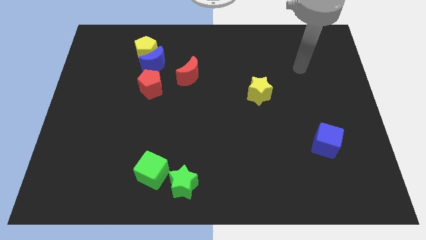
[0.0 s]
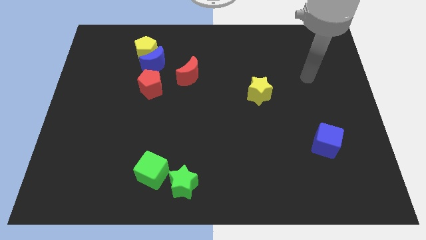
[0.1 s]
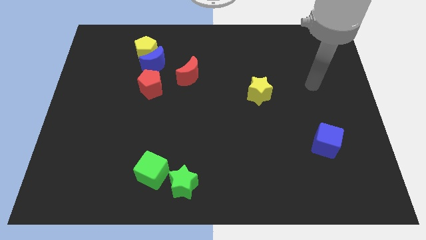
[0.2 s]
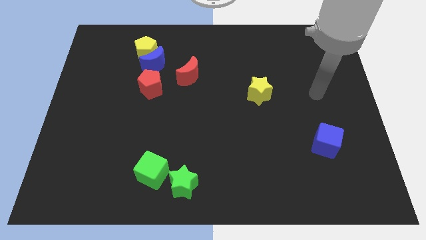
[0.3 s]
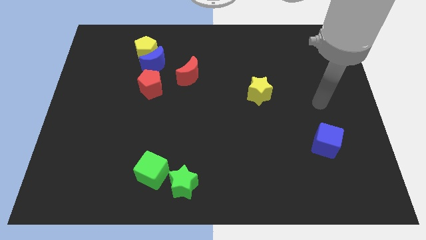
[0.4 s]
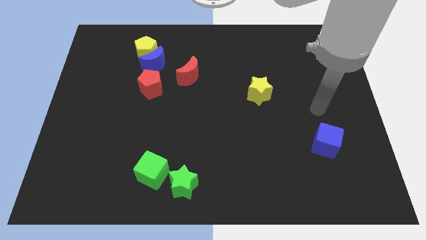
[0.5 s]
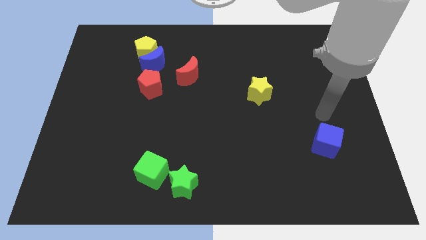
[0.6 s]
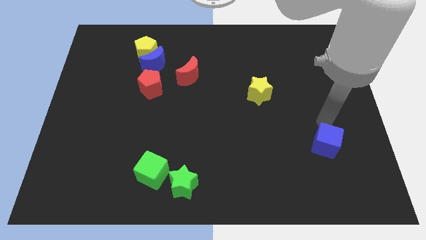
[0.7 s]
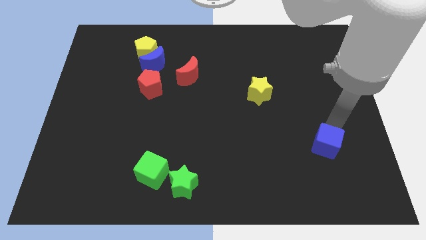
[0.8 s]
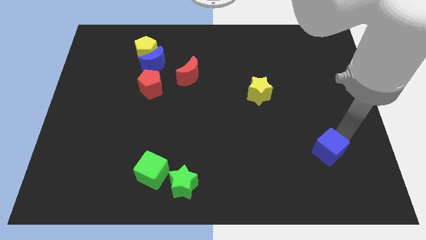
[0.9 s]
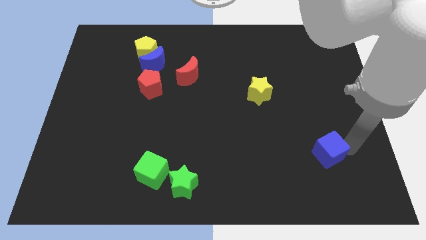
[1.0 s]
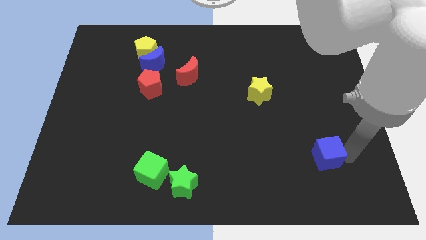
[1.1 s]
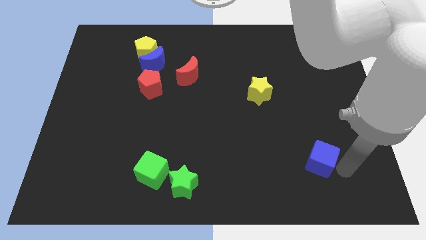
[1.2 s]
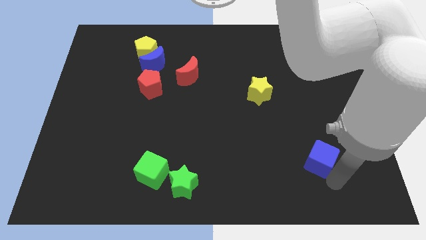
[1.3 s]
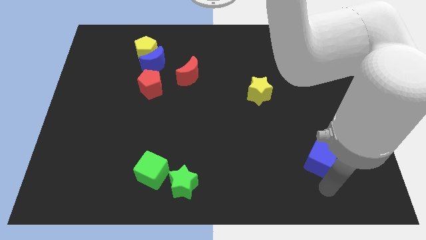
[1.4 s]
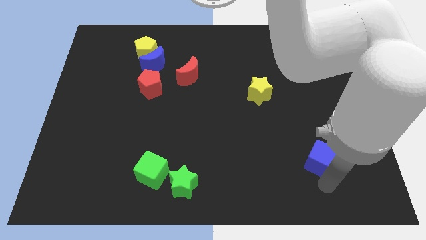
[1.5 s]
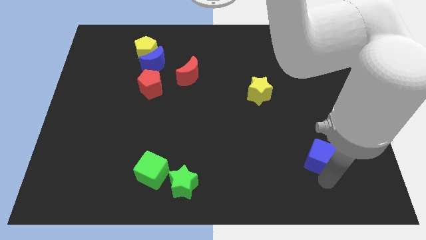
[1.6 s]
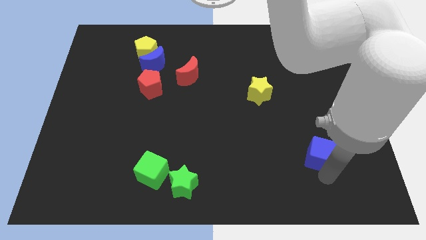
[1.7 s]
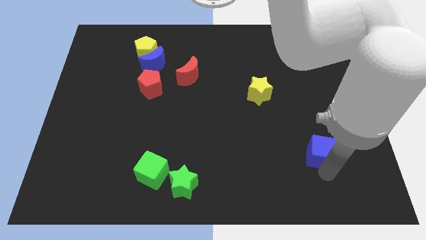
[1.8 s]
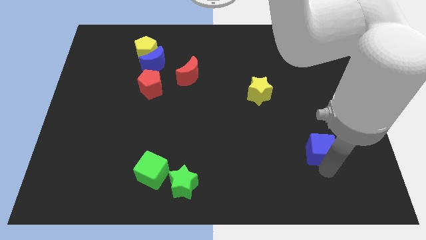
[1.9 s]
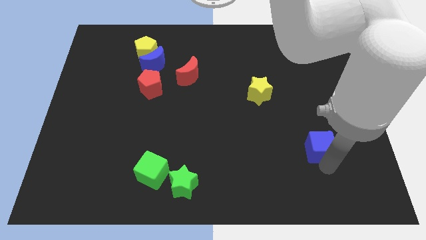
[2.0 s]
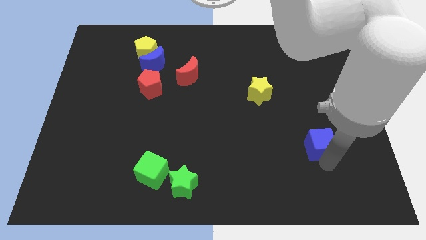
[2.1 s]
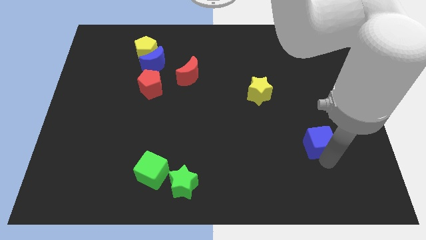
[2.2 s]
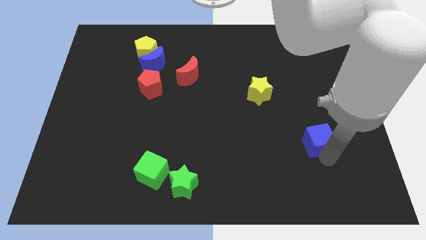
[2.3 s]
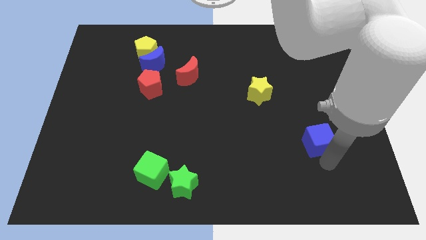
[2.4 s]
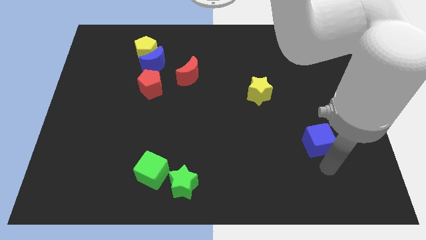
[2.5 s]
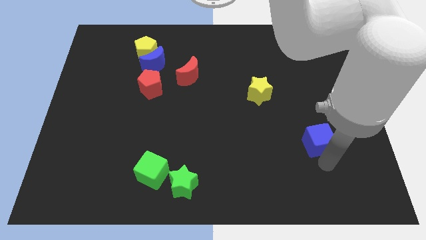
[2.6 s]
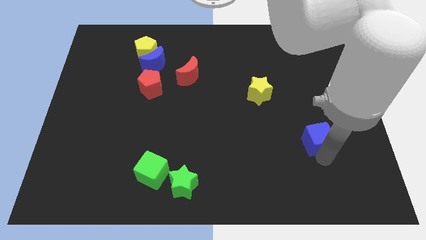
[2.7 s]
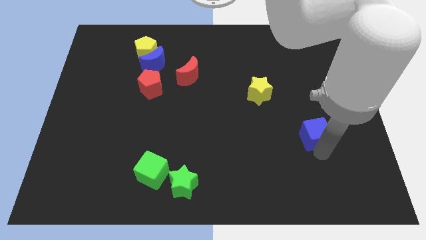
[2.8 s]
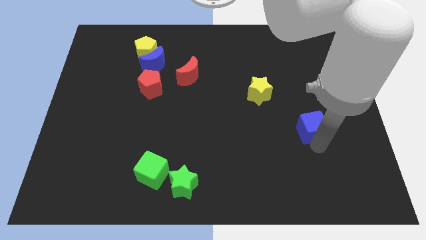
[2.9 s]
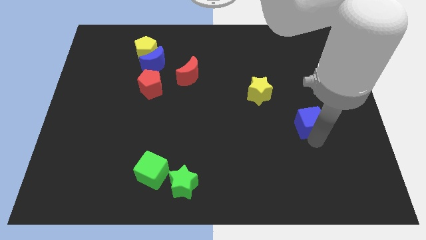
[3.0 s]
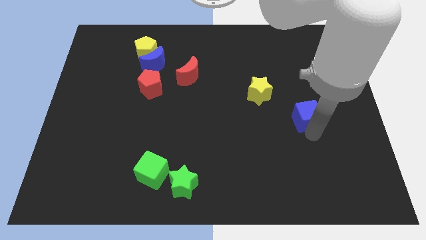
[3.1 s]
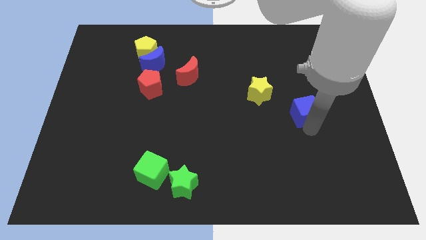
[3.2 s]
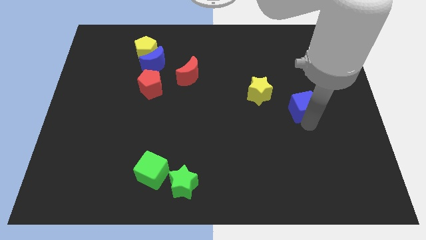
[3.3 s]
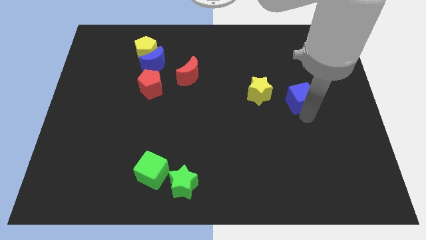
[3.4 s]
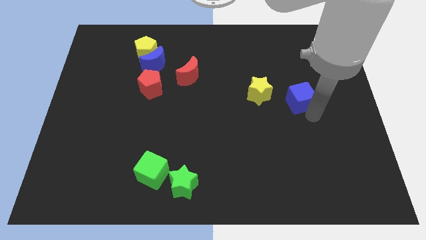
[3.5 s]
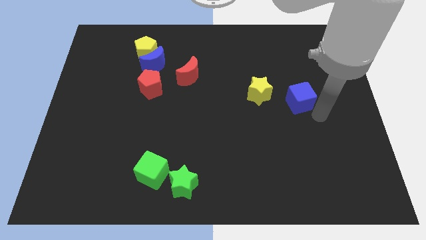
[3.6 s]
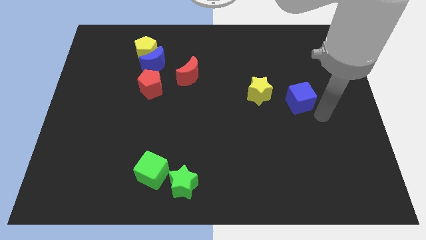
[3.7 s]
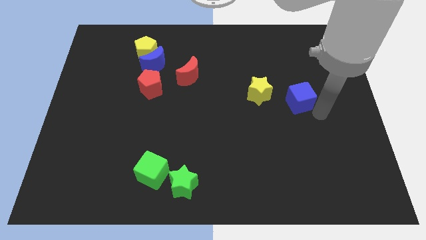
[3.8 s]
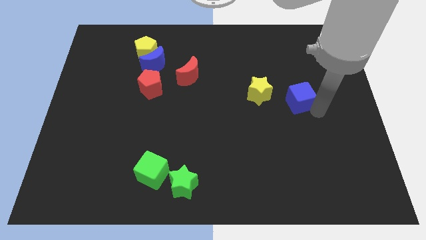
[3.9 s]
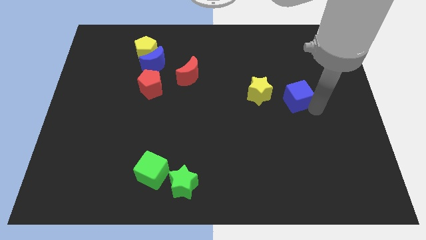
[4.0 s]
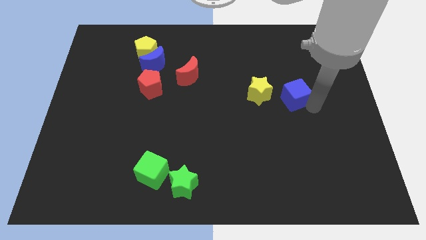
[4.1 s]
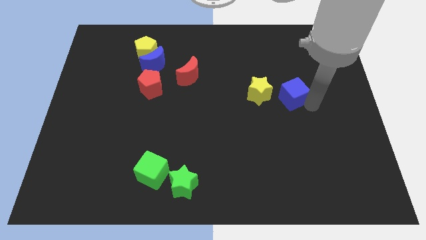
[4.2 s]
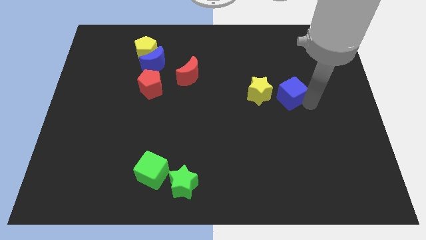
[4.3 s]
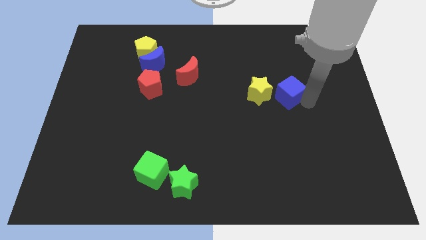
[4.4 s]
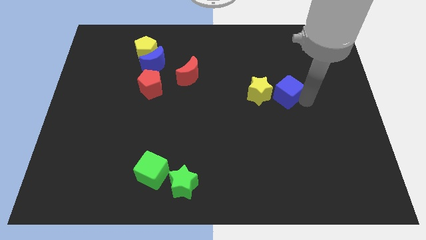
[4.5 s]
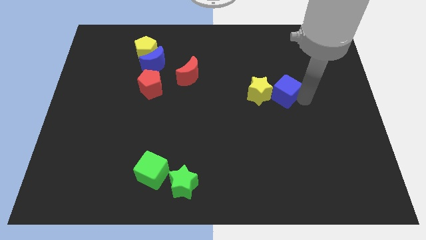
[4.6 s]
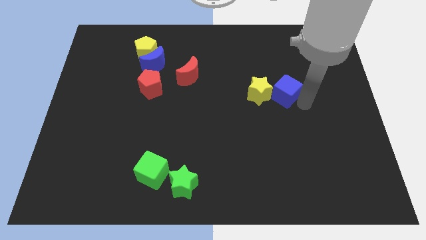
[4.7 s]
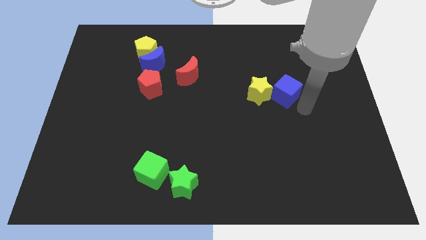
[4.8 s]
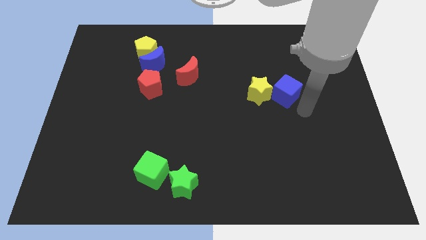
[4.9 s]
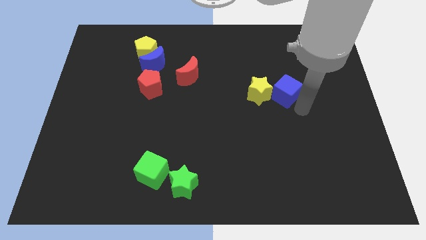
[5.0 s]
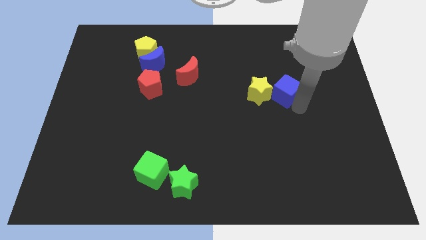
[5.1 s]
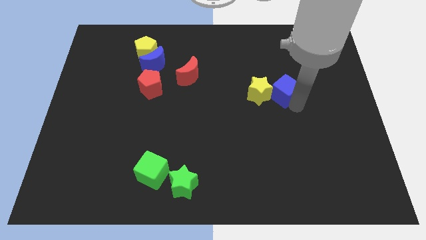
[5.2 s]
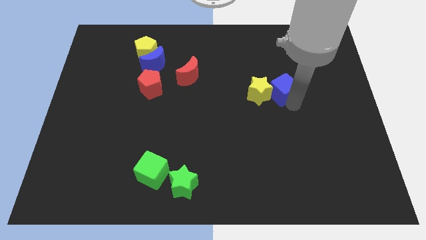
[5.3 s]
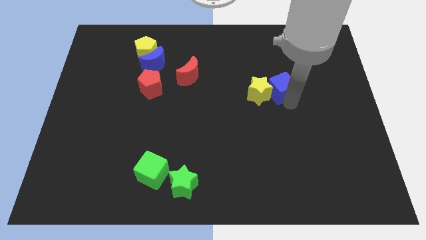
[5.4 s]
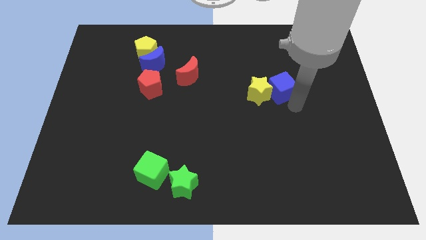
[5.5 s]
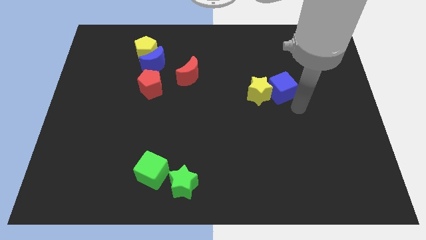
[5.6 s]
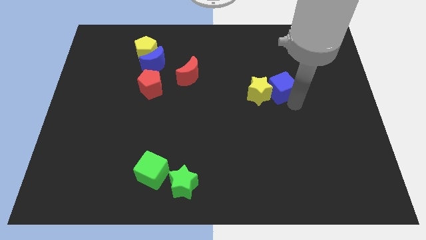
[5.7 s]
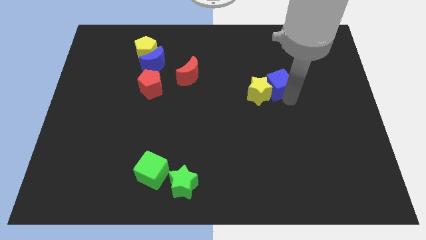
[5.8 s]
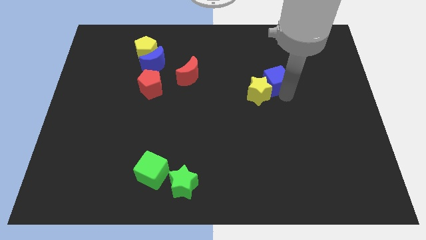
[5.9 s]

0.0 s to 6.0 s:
put the blue cube to the top side of the yellow star

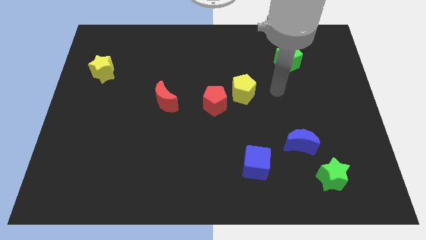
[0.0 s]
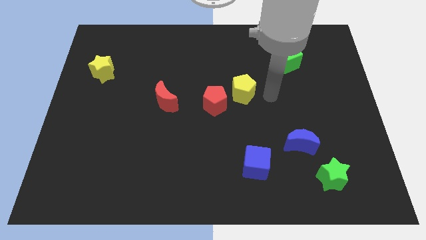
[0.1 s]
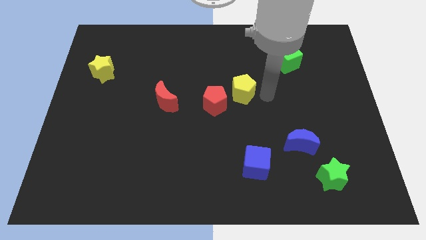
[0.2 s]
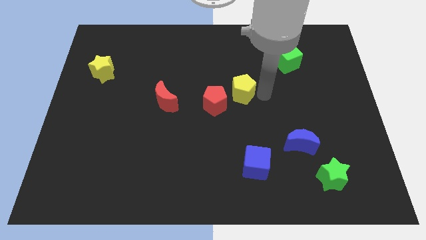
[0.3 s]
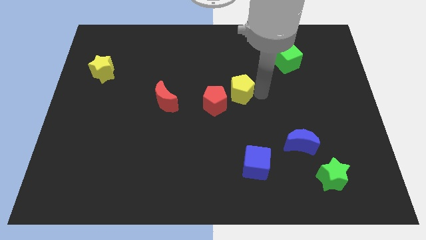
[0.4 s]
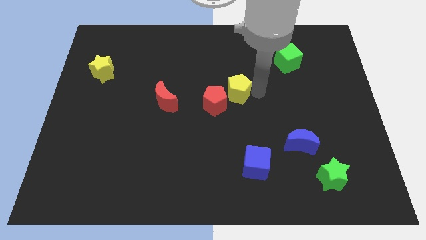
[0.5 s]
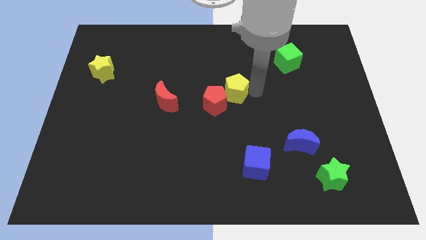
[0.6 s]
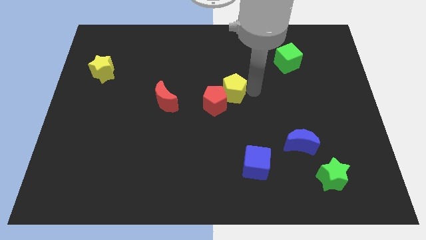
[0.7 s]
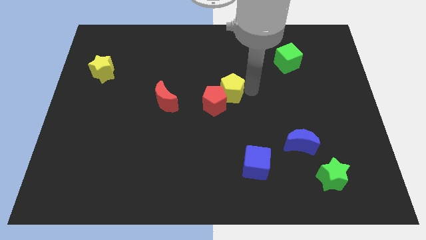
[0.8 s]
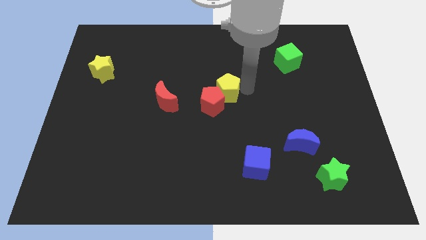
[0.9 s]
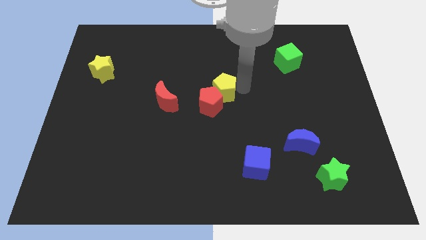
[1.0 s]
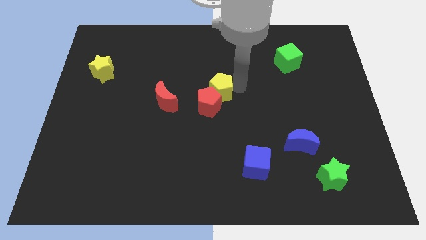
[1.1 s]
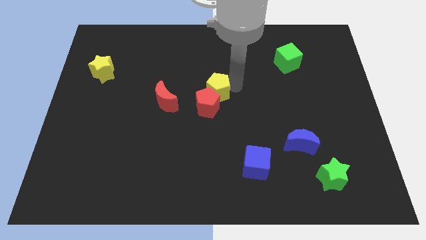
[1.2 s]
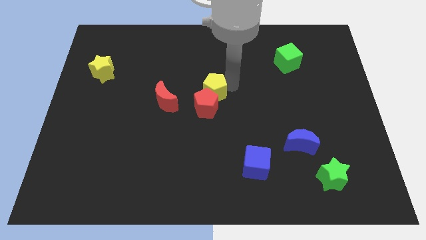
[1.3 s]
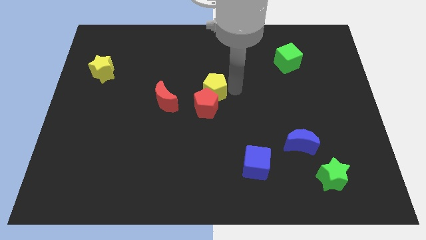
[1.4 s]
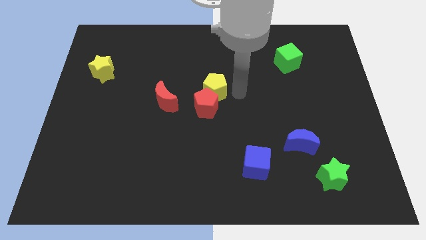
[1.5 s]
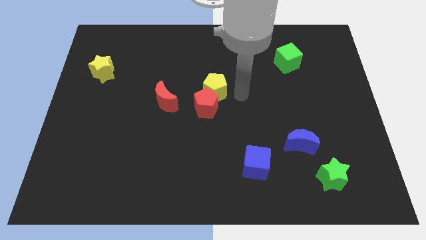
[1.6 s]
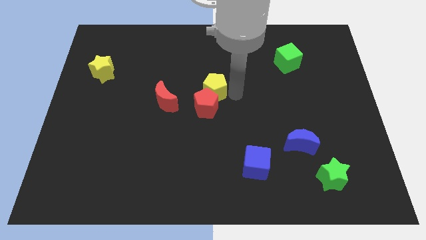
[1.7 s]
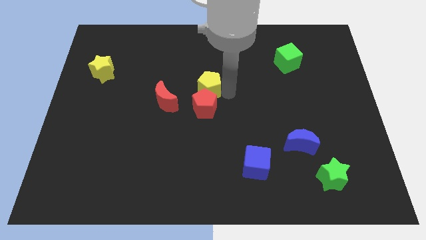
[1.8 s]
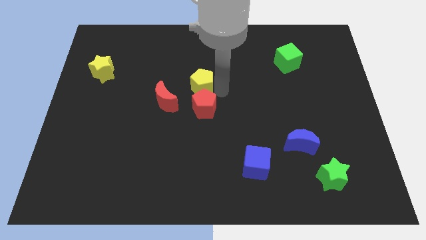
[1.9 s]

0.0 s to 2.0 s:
push the yellow pentagon diagonally up and to the right of the red moon
